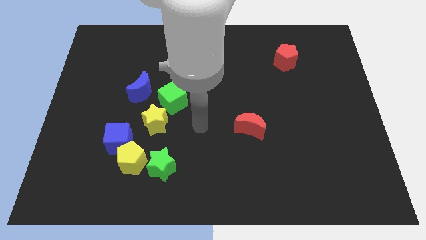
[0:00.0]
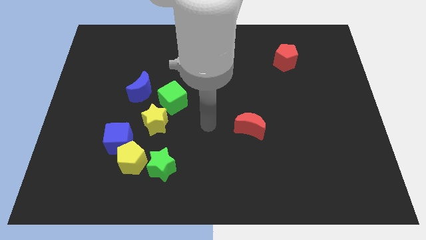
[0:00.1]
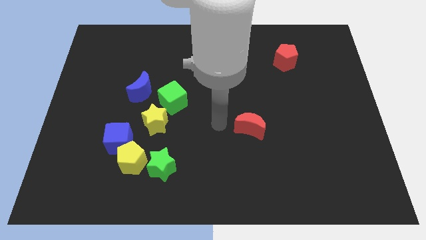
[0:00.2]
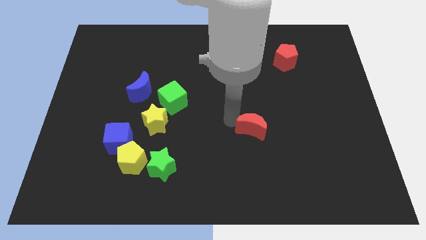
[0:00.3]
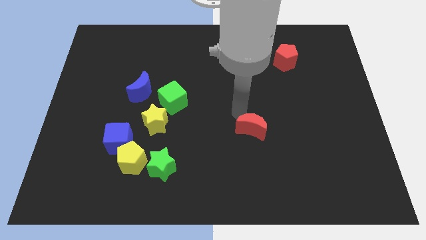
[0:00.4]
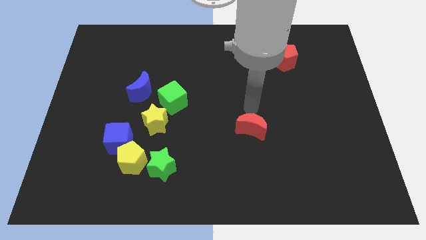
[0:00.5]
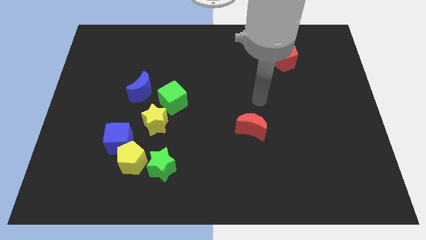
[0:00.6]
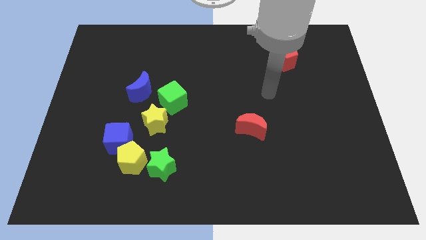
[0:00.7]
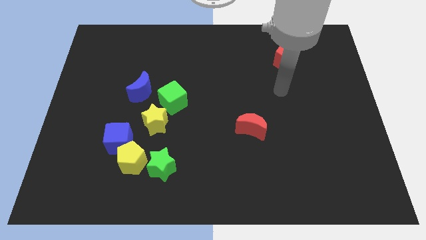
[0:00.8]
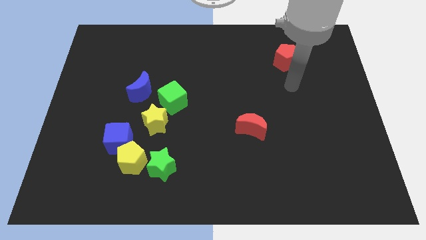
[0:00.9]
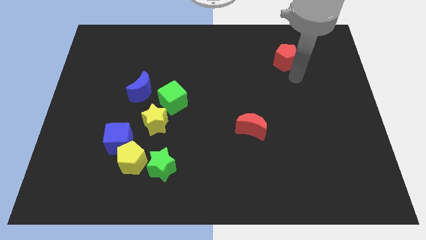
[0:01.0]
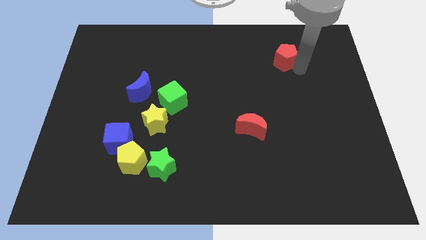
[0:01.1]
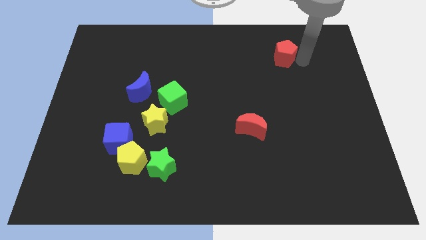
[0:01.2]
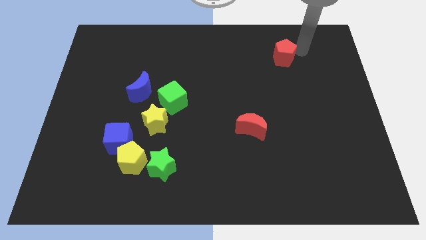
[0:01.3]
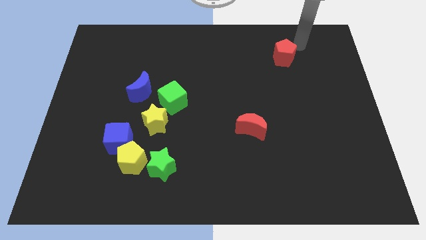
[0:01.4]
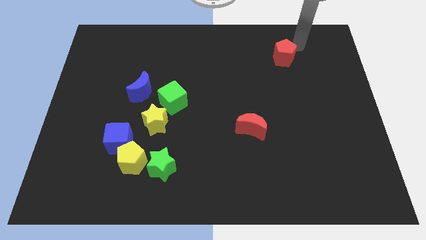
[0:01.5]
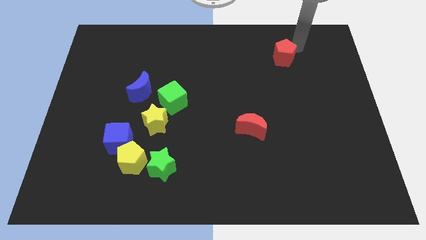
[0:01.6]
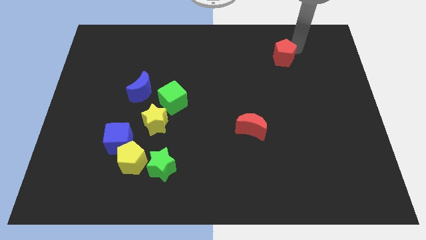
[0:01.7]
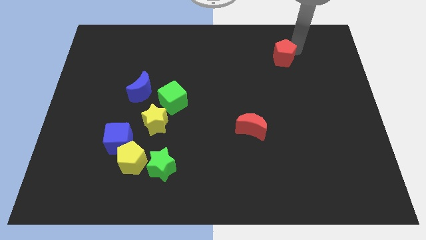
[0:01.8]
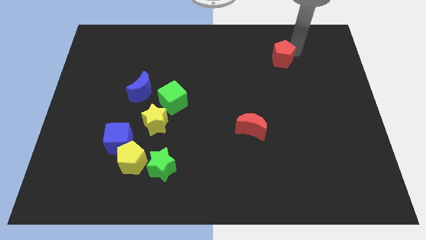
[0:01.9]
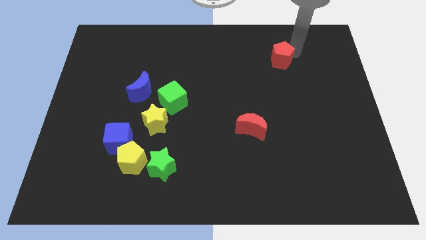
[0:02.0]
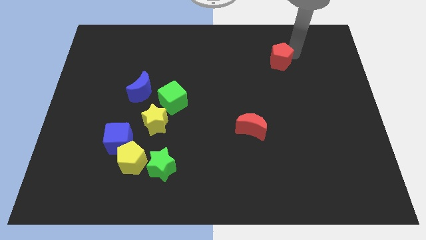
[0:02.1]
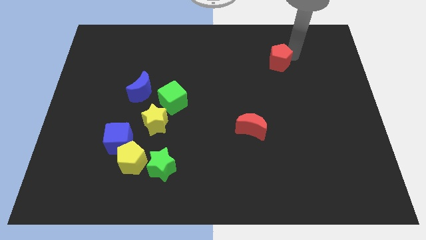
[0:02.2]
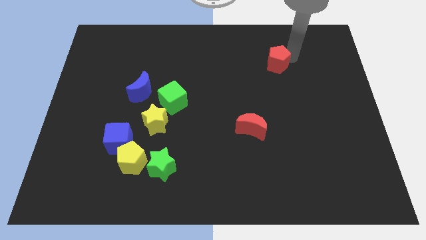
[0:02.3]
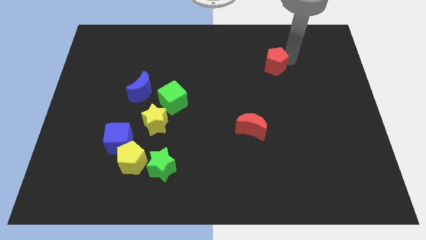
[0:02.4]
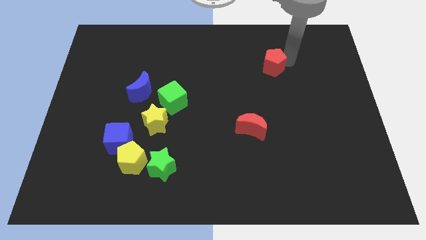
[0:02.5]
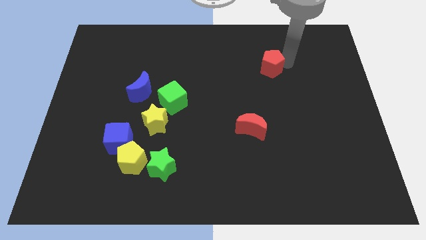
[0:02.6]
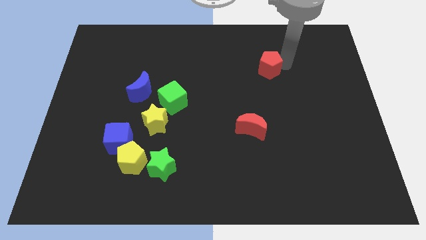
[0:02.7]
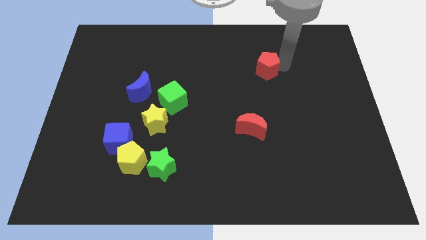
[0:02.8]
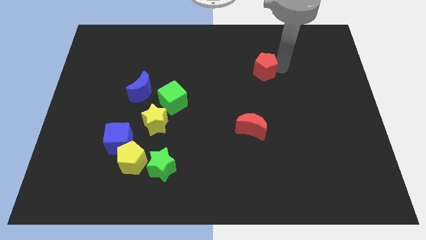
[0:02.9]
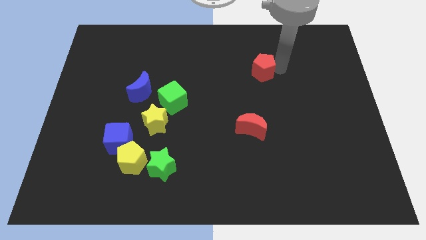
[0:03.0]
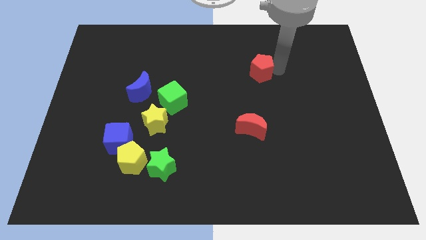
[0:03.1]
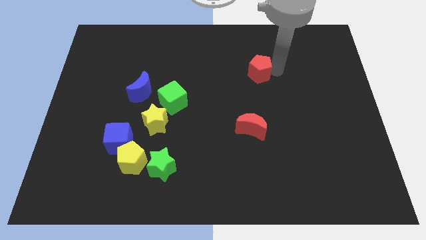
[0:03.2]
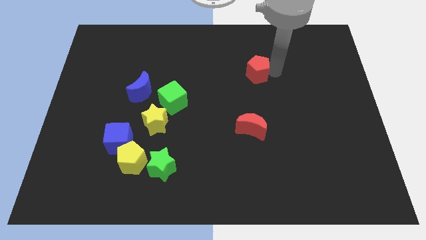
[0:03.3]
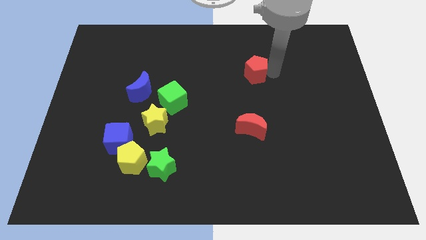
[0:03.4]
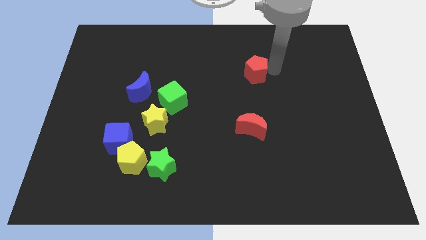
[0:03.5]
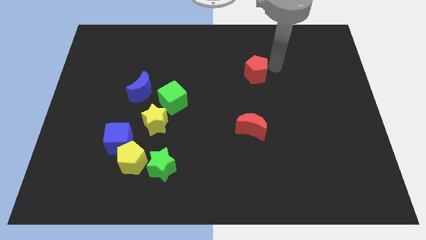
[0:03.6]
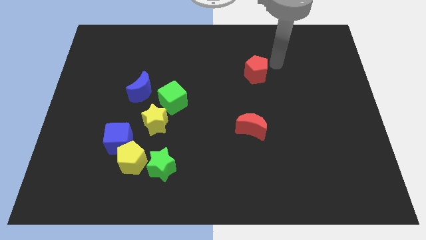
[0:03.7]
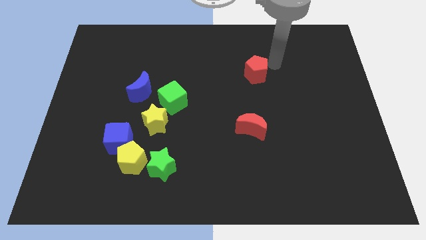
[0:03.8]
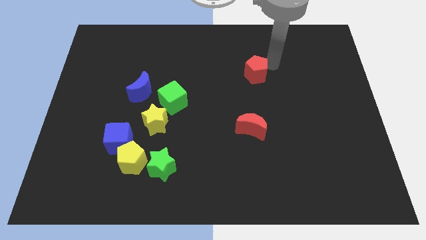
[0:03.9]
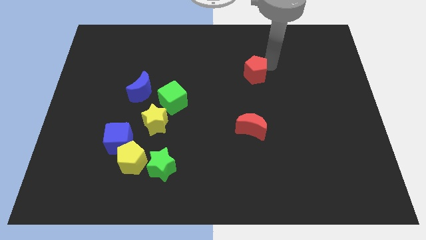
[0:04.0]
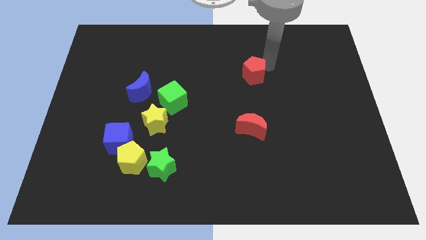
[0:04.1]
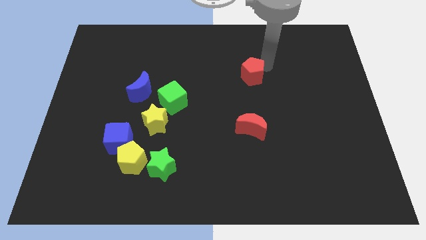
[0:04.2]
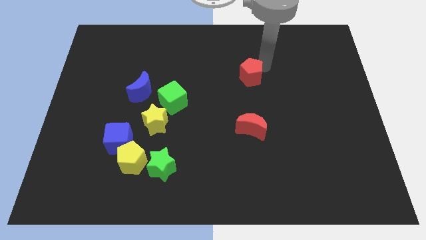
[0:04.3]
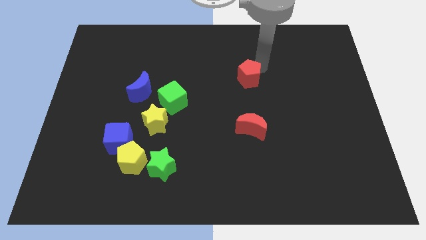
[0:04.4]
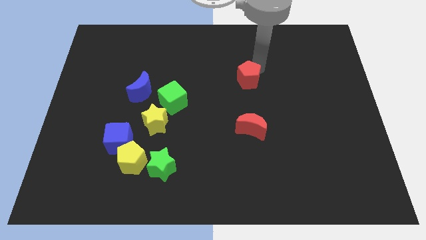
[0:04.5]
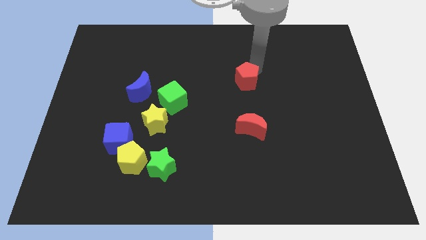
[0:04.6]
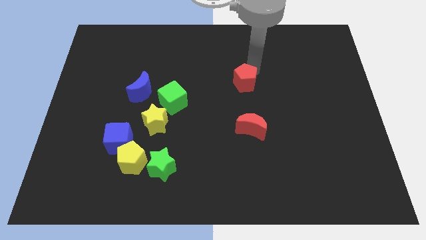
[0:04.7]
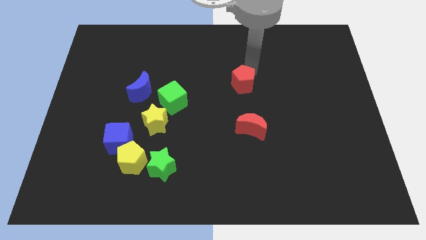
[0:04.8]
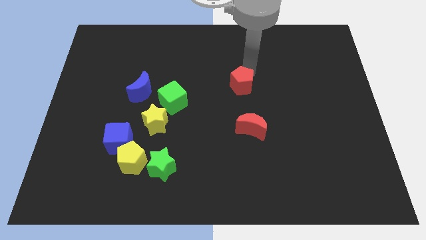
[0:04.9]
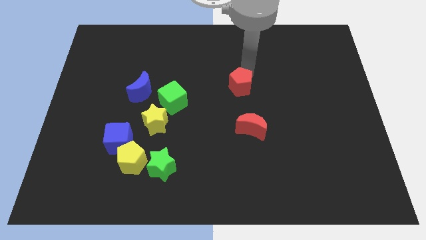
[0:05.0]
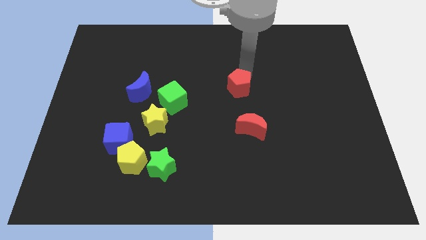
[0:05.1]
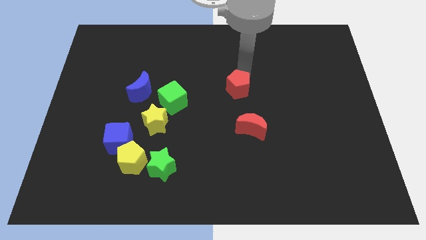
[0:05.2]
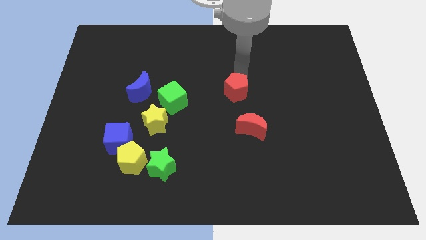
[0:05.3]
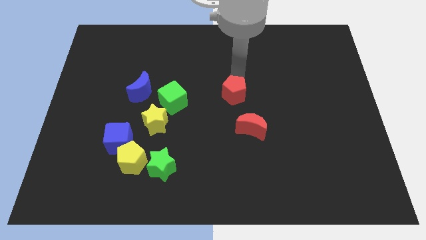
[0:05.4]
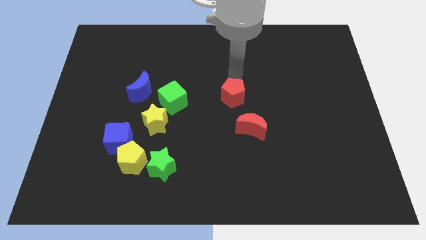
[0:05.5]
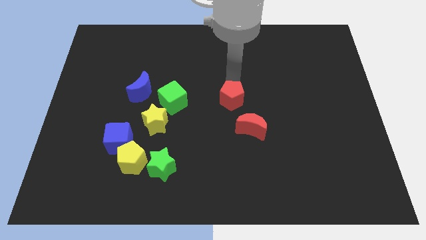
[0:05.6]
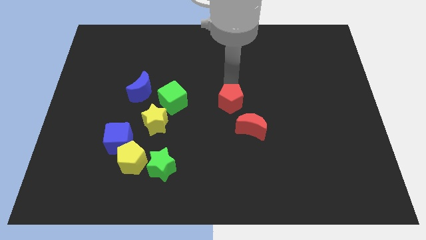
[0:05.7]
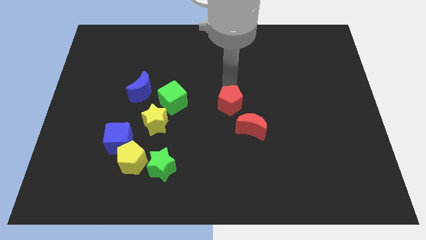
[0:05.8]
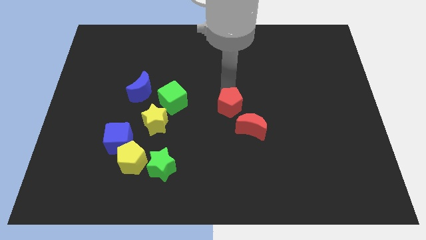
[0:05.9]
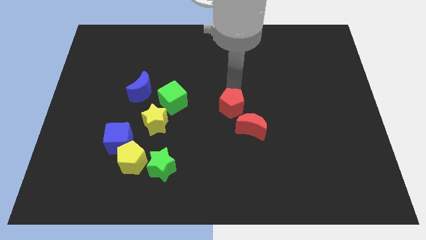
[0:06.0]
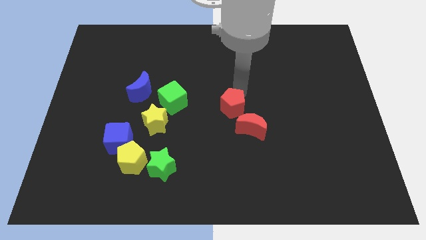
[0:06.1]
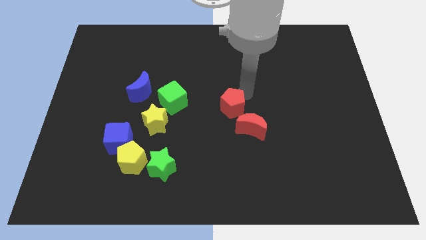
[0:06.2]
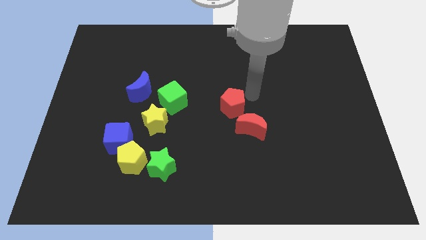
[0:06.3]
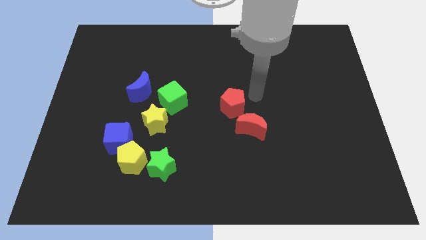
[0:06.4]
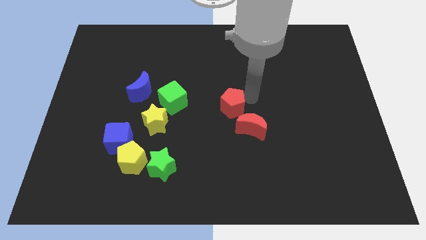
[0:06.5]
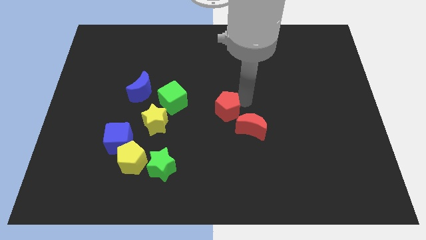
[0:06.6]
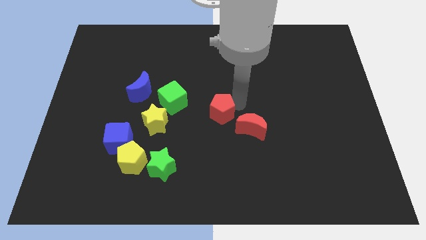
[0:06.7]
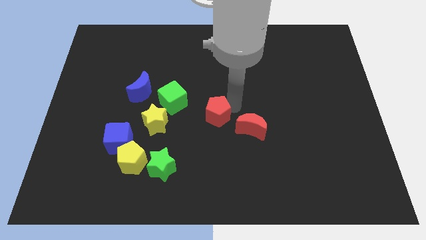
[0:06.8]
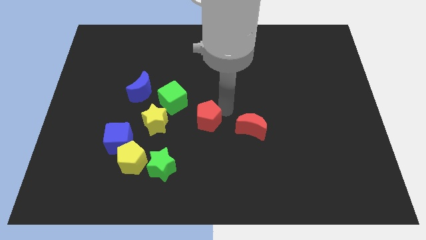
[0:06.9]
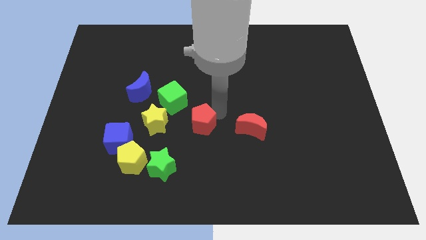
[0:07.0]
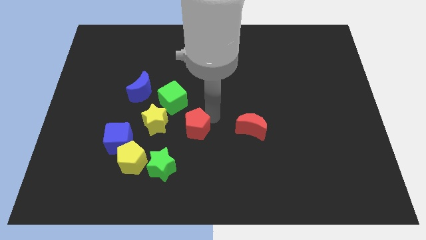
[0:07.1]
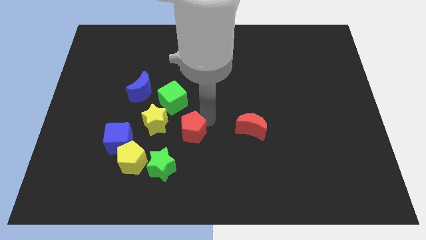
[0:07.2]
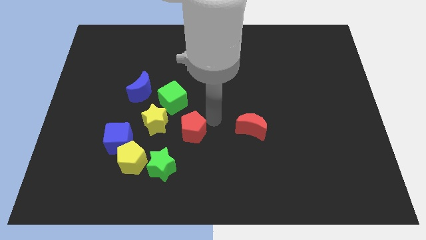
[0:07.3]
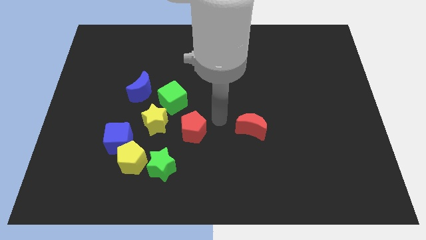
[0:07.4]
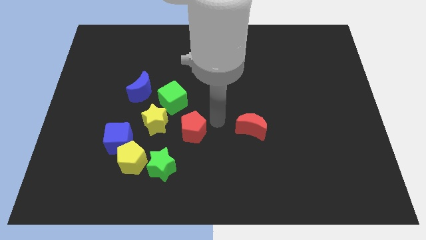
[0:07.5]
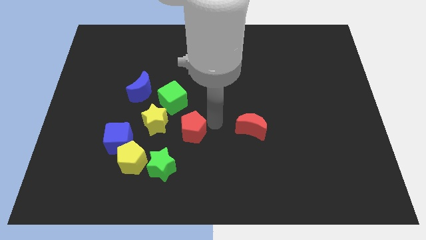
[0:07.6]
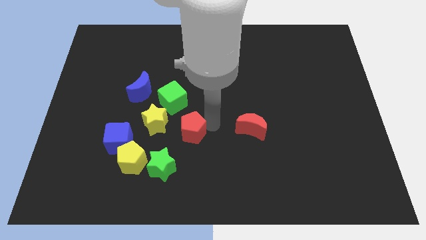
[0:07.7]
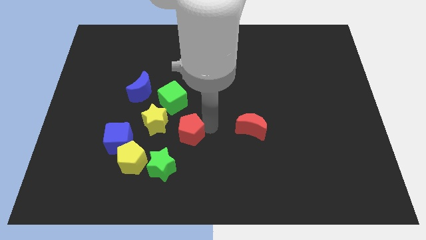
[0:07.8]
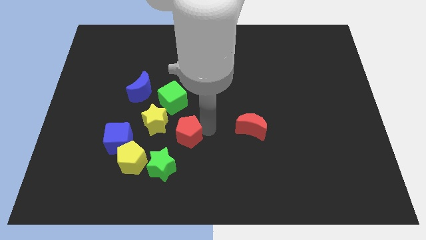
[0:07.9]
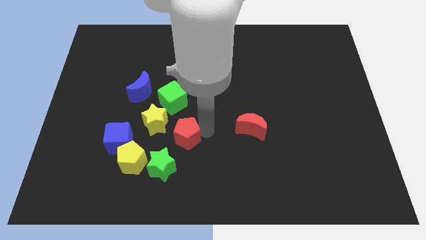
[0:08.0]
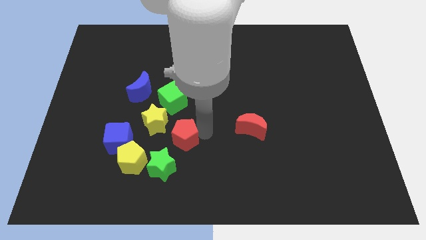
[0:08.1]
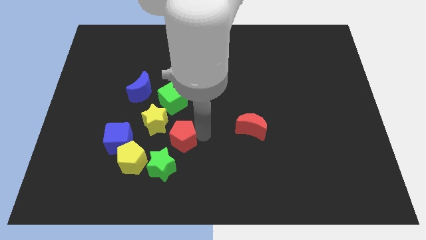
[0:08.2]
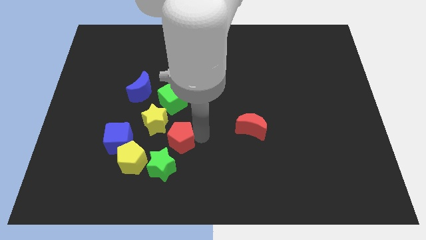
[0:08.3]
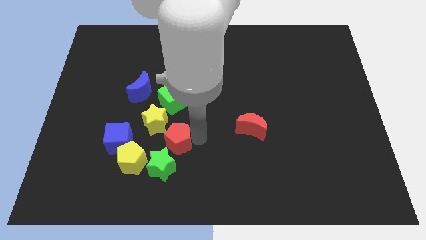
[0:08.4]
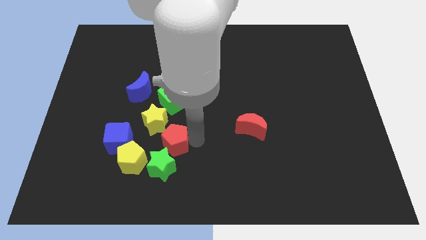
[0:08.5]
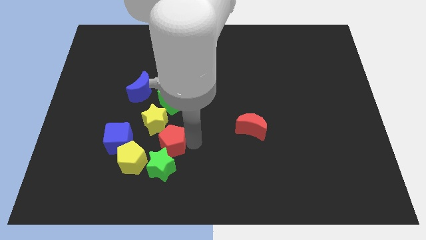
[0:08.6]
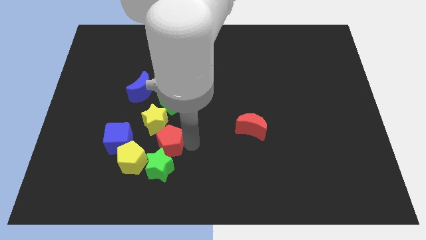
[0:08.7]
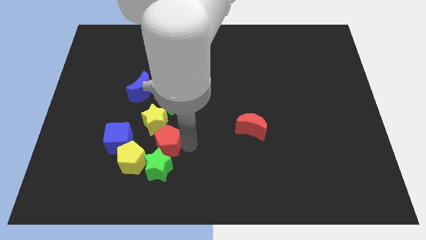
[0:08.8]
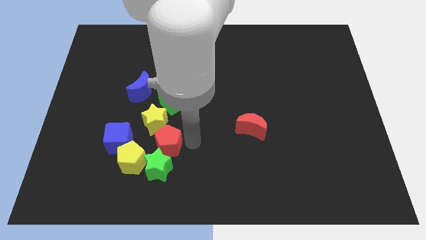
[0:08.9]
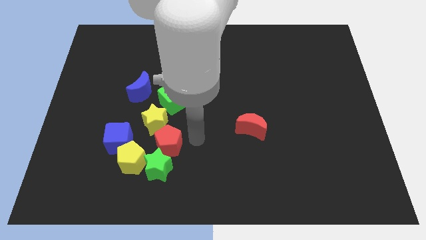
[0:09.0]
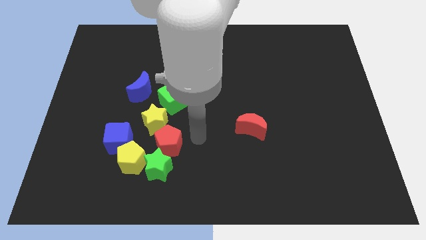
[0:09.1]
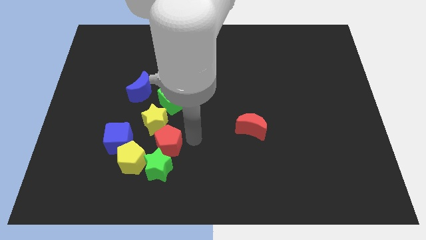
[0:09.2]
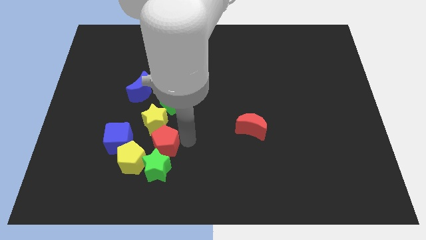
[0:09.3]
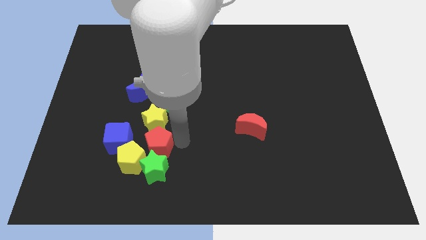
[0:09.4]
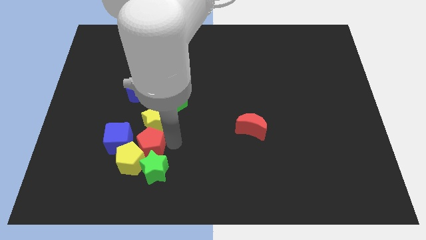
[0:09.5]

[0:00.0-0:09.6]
push the red pentagon towards the yellow pentagon
